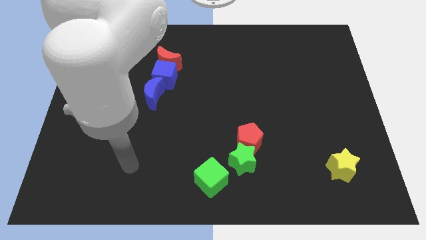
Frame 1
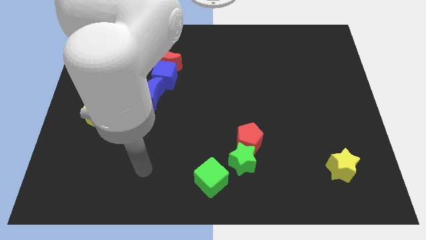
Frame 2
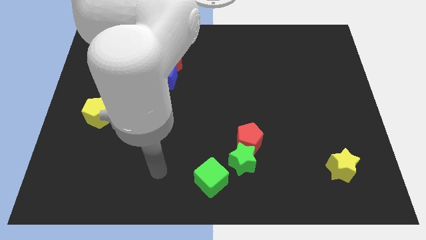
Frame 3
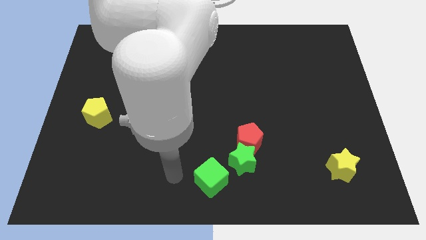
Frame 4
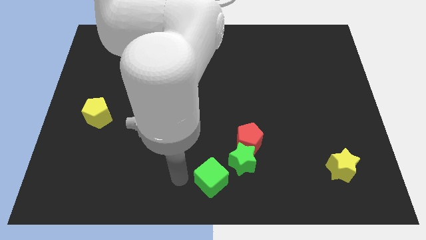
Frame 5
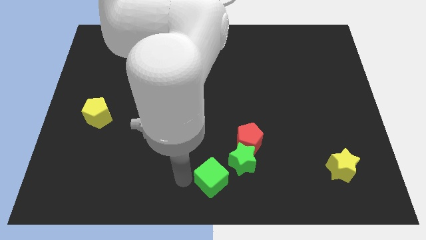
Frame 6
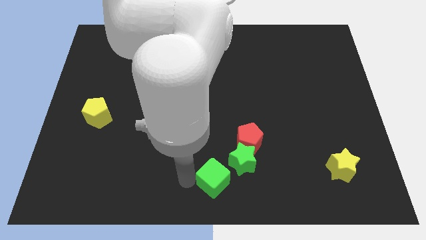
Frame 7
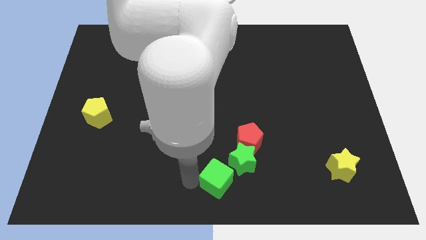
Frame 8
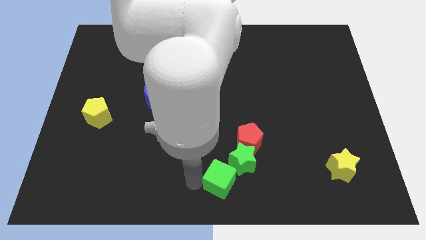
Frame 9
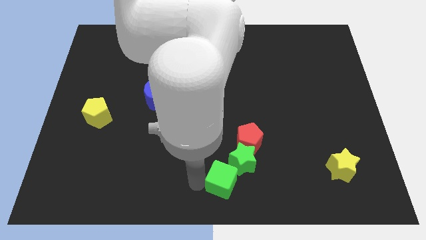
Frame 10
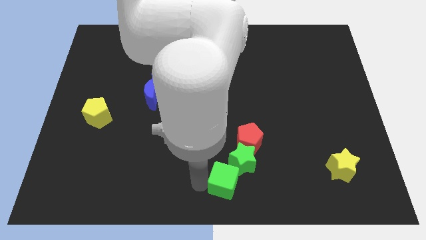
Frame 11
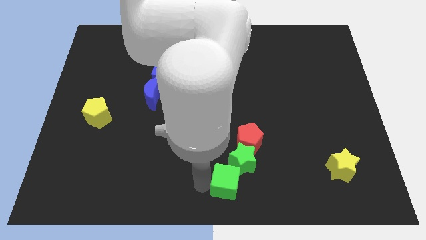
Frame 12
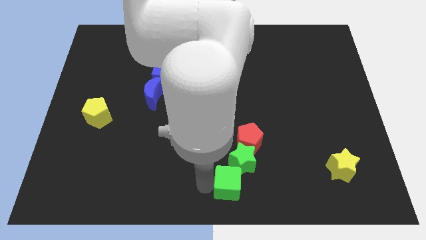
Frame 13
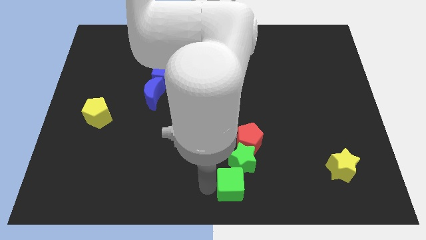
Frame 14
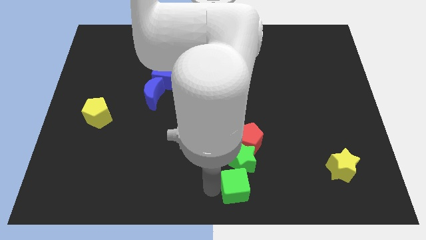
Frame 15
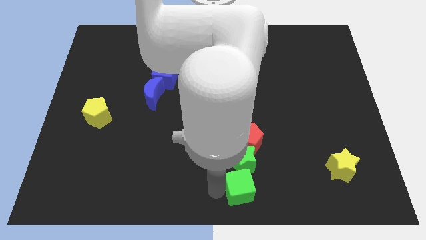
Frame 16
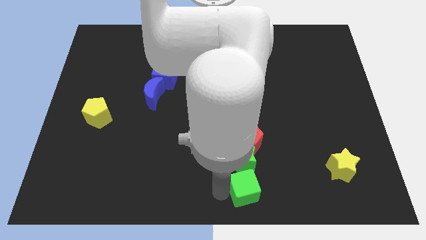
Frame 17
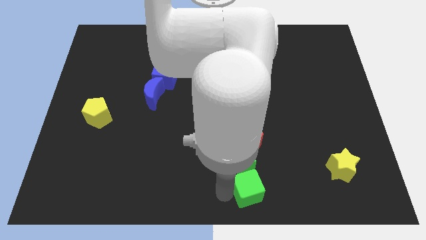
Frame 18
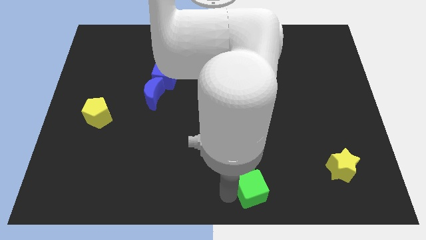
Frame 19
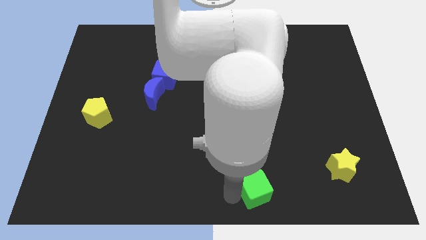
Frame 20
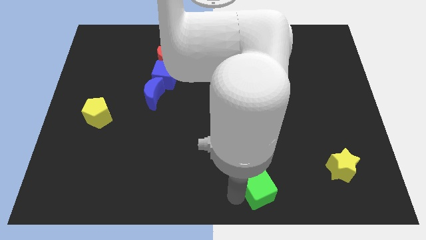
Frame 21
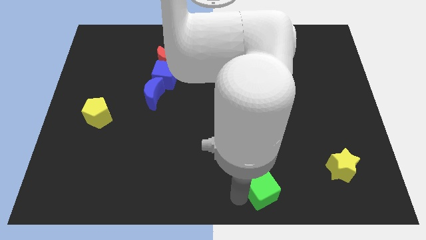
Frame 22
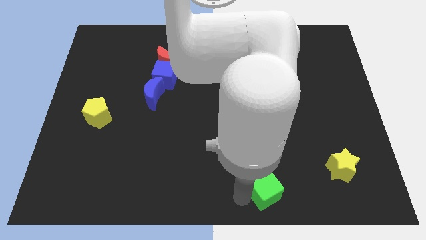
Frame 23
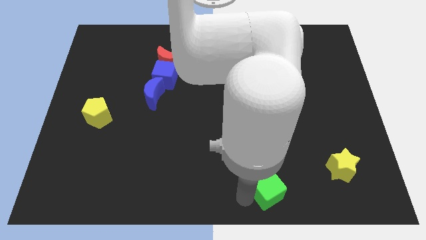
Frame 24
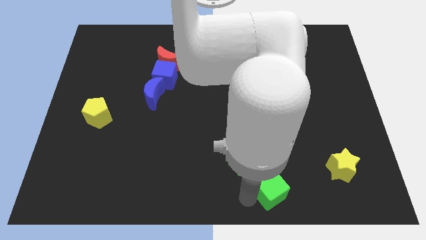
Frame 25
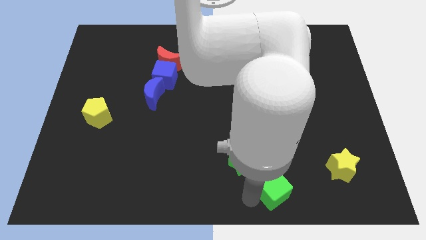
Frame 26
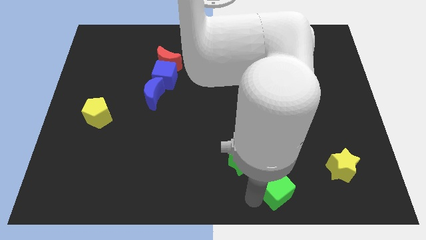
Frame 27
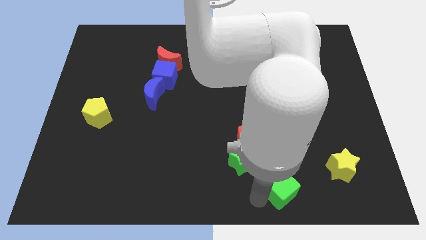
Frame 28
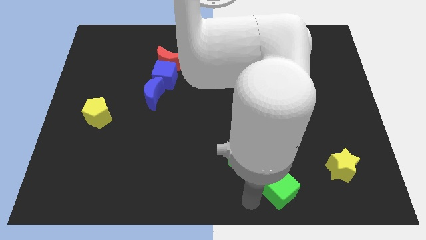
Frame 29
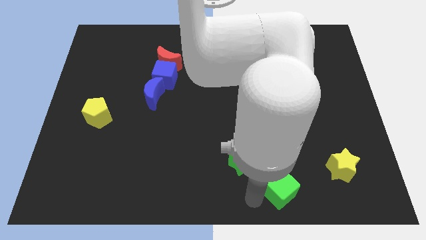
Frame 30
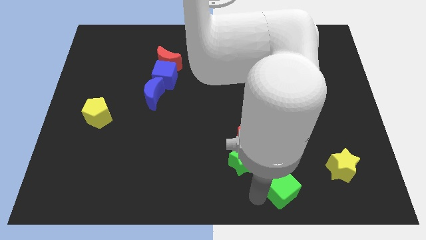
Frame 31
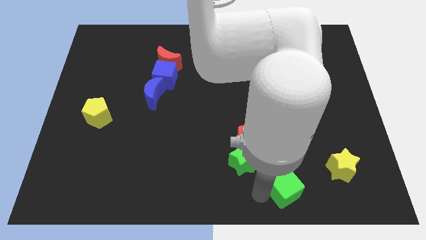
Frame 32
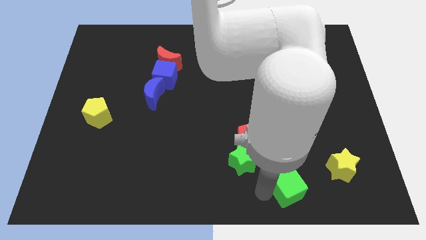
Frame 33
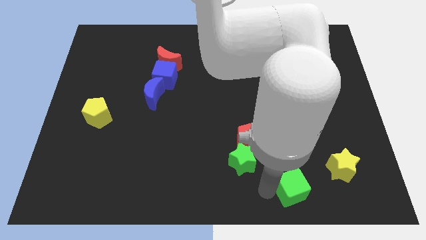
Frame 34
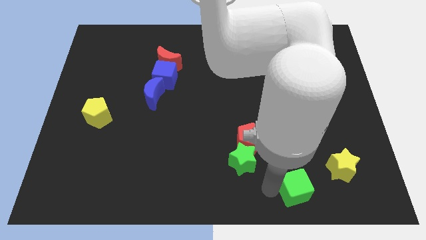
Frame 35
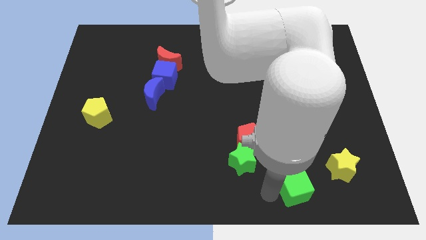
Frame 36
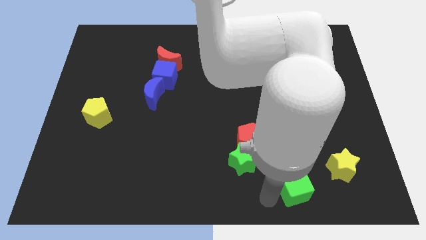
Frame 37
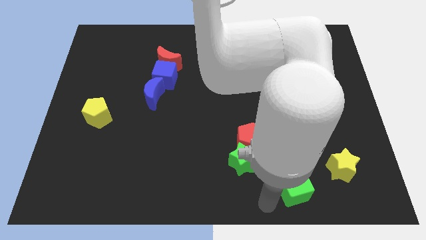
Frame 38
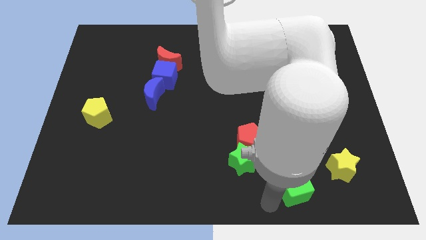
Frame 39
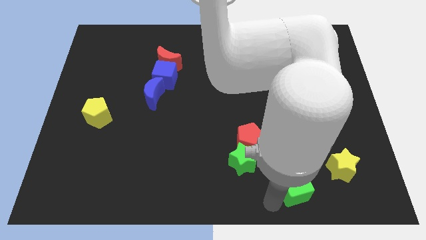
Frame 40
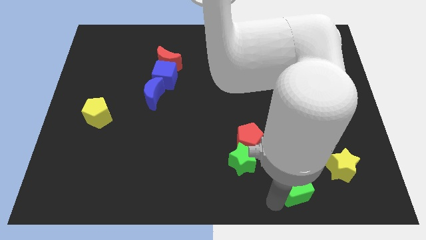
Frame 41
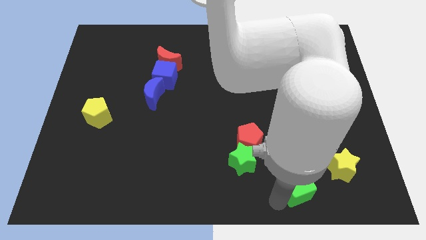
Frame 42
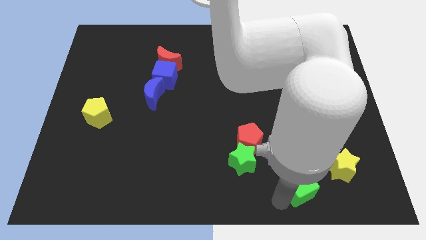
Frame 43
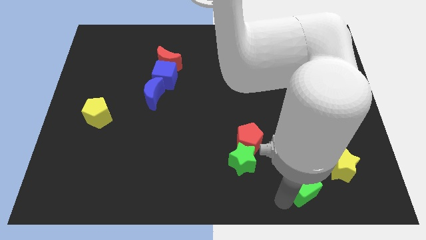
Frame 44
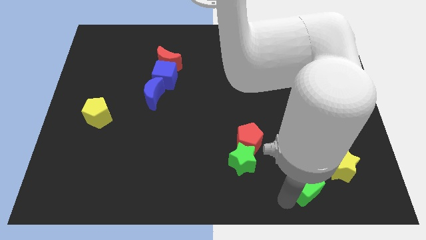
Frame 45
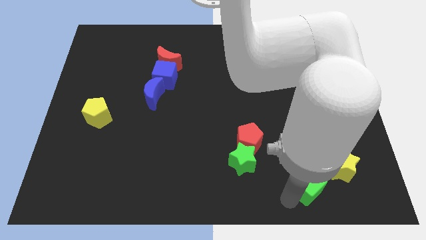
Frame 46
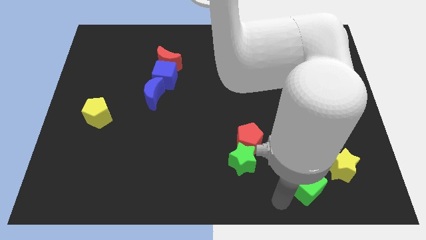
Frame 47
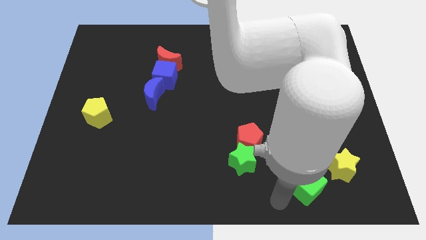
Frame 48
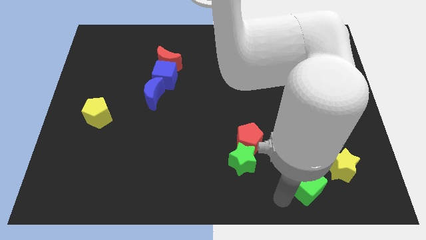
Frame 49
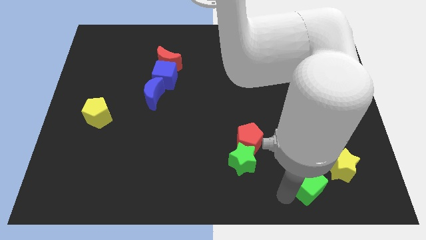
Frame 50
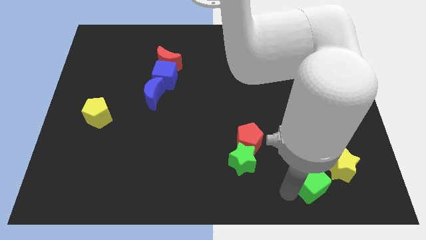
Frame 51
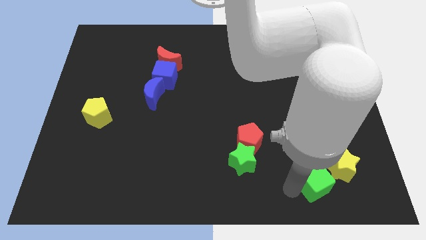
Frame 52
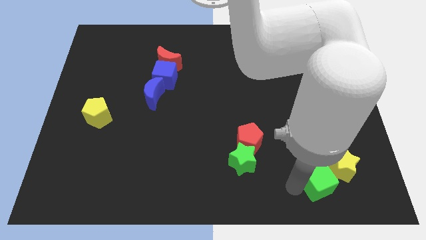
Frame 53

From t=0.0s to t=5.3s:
push the green cube to the yellow star

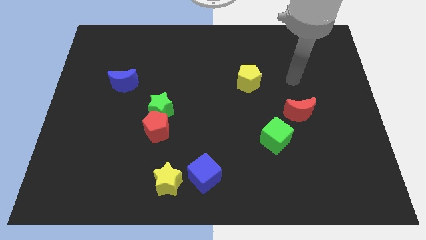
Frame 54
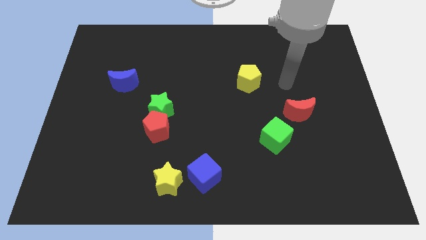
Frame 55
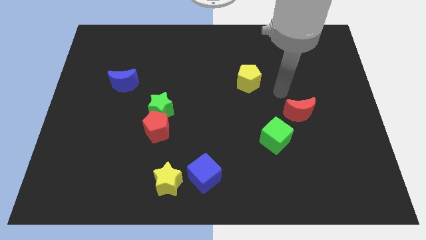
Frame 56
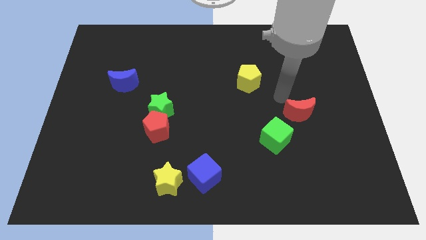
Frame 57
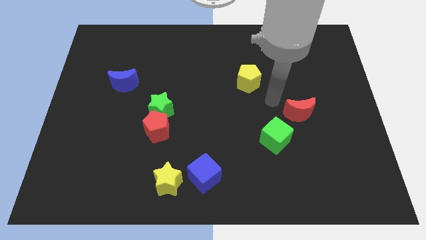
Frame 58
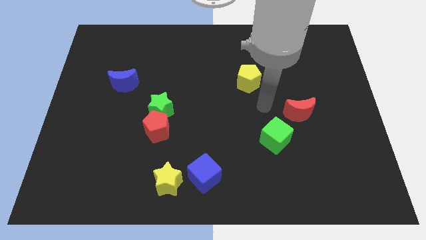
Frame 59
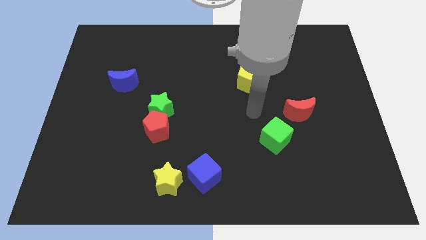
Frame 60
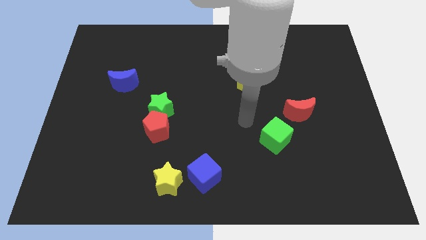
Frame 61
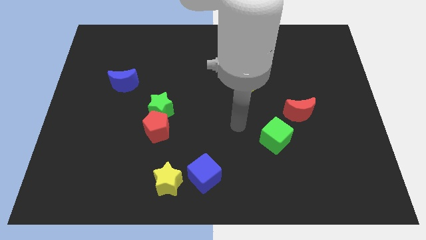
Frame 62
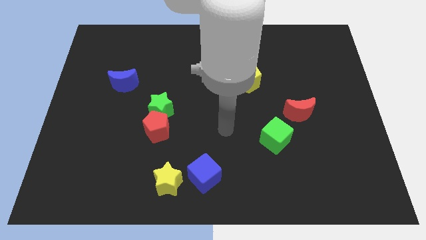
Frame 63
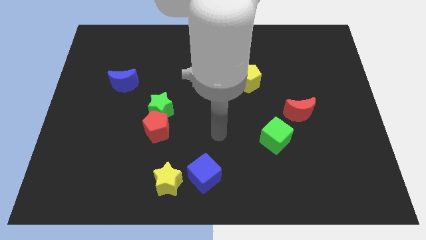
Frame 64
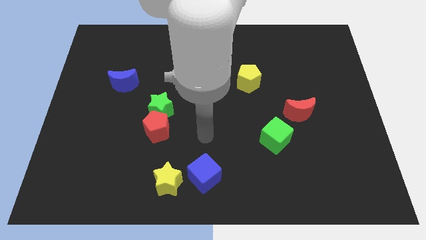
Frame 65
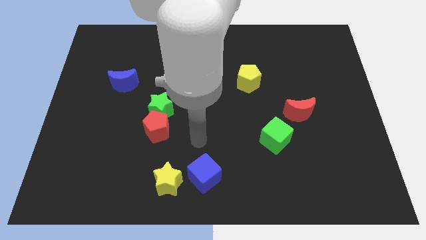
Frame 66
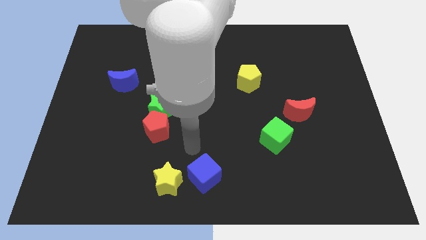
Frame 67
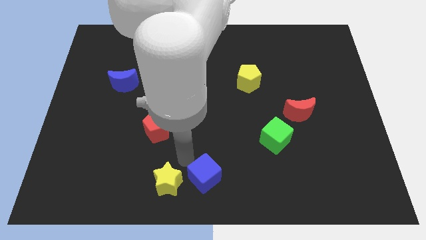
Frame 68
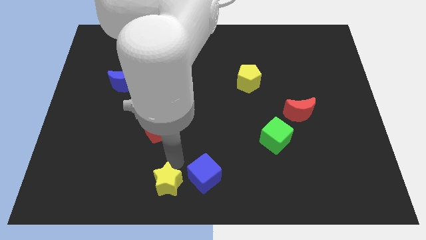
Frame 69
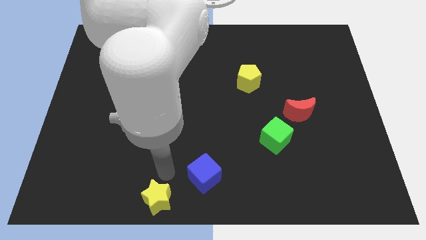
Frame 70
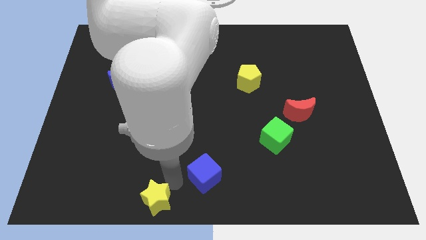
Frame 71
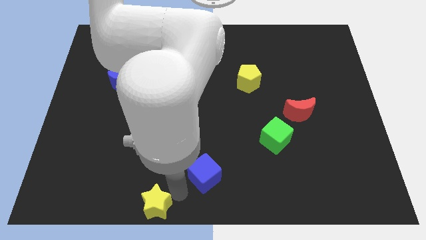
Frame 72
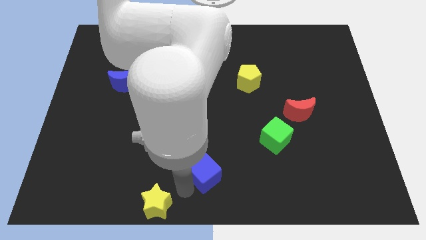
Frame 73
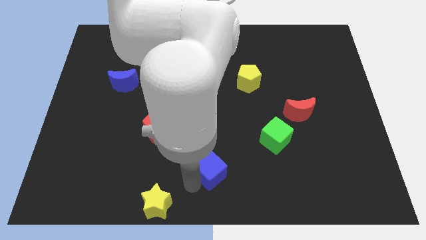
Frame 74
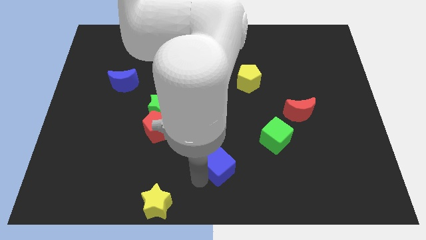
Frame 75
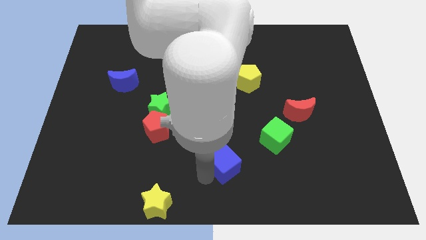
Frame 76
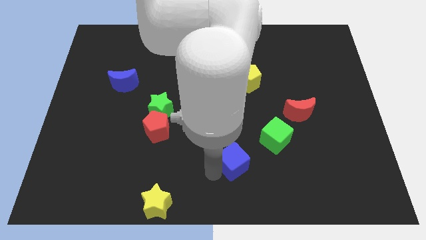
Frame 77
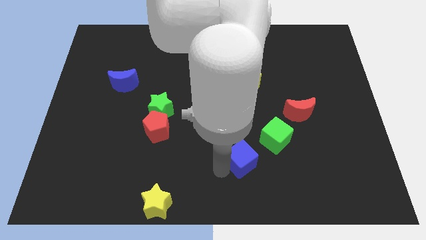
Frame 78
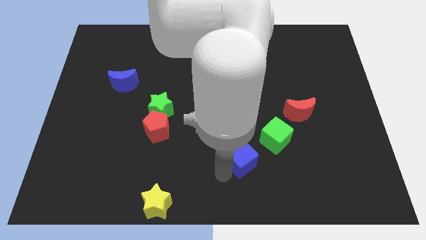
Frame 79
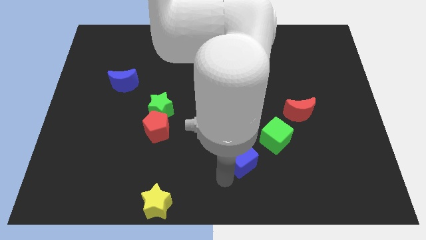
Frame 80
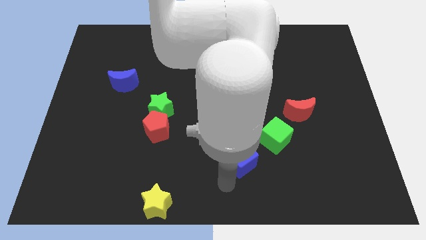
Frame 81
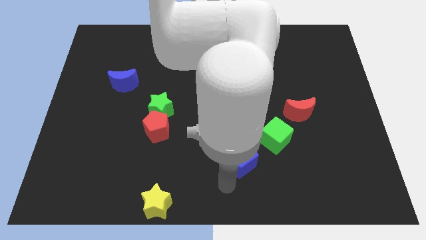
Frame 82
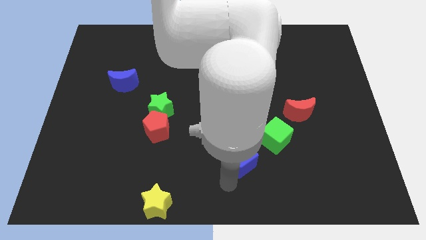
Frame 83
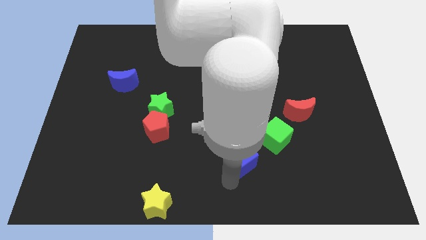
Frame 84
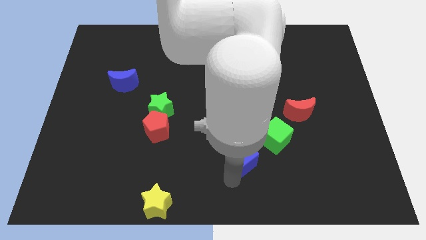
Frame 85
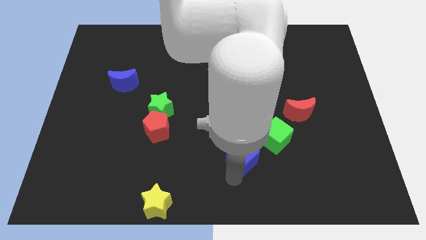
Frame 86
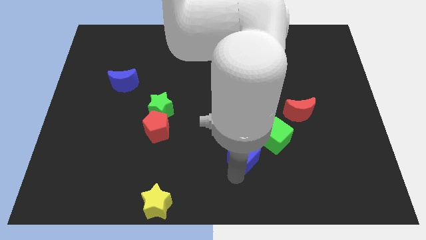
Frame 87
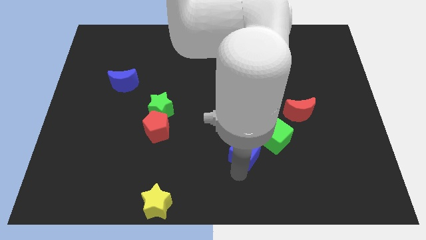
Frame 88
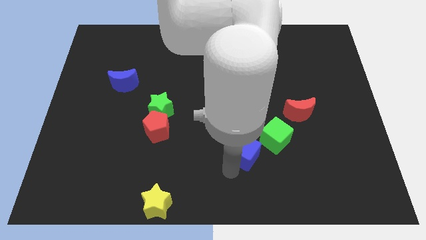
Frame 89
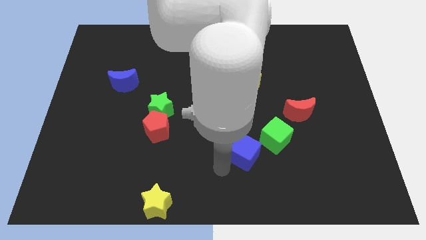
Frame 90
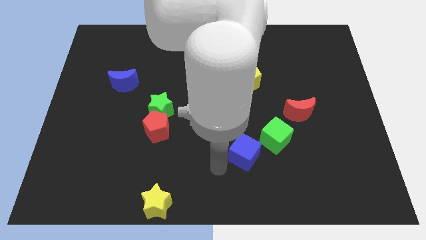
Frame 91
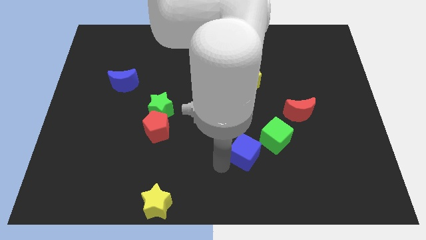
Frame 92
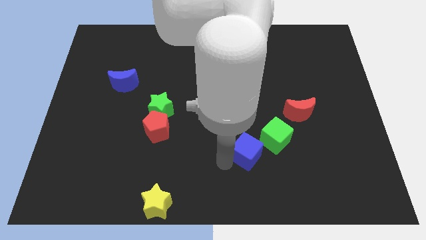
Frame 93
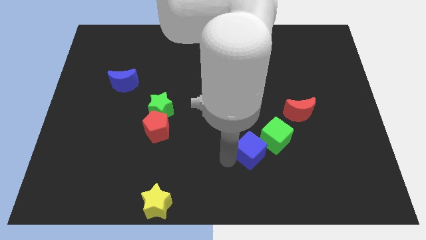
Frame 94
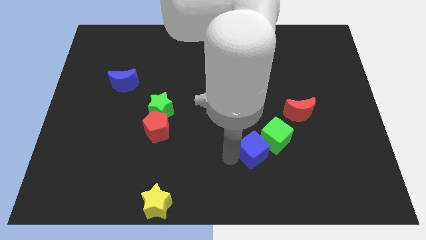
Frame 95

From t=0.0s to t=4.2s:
move the blue cube close to the green cube
